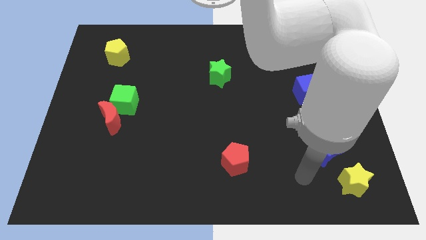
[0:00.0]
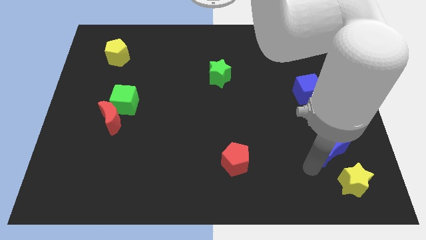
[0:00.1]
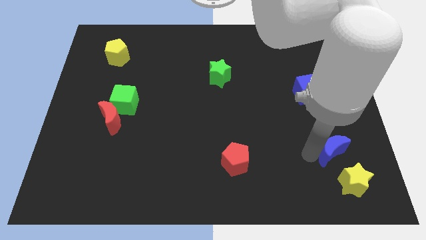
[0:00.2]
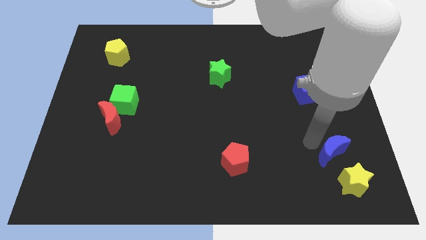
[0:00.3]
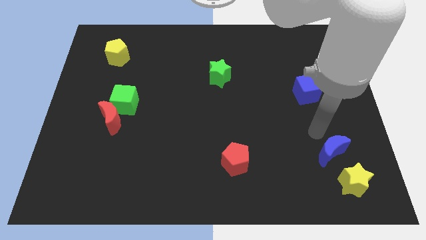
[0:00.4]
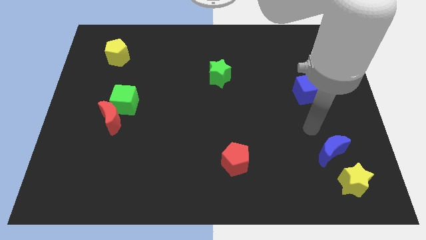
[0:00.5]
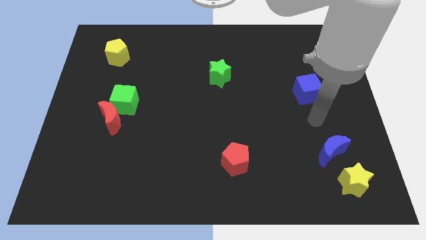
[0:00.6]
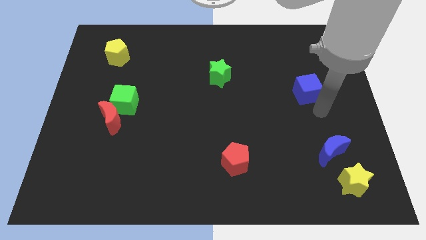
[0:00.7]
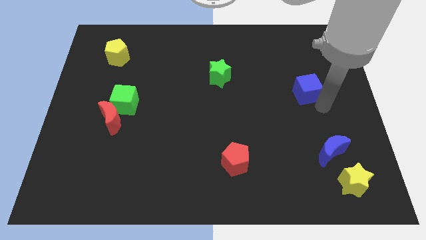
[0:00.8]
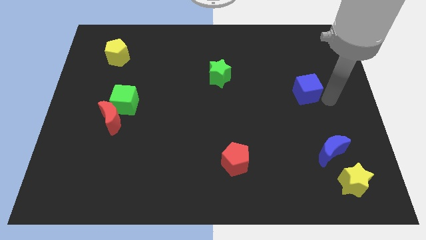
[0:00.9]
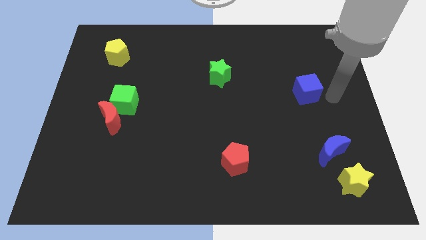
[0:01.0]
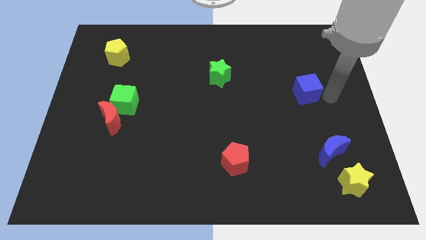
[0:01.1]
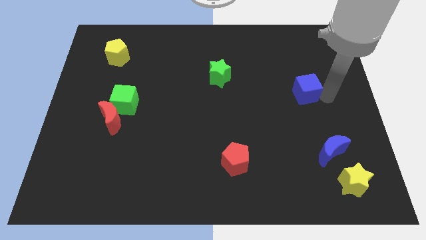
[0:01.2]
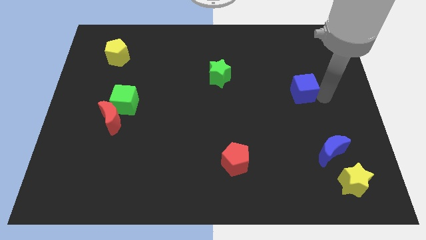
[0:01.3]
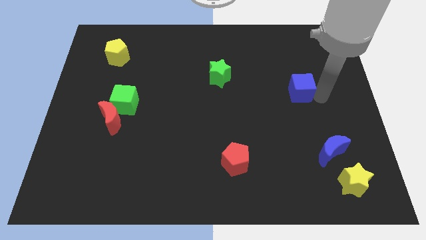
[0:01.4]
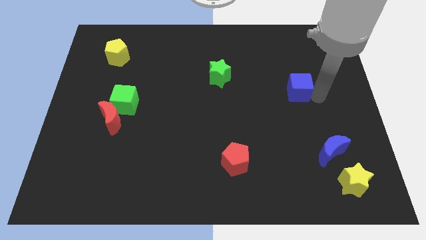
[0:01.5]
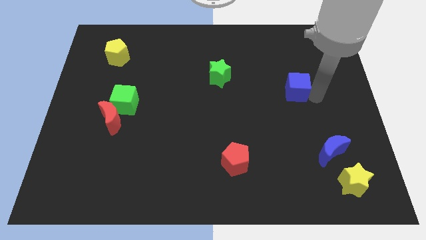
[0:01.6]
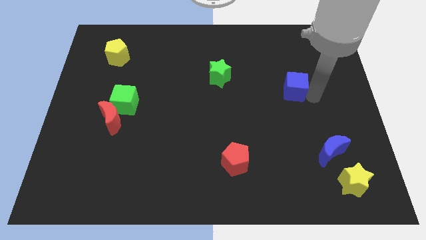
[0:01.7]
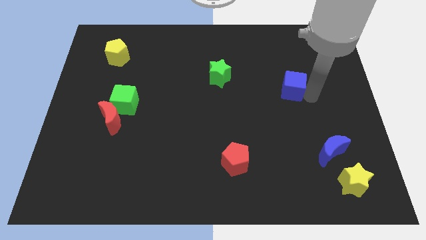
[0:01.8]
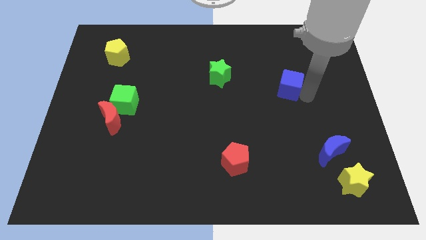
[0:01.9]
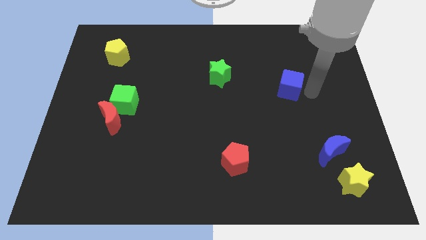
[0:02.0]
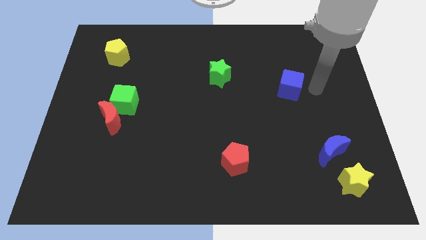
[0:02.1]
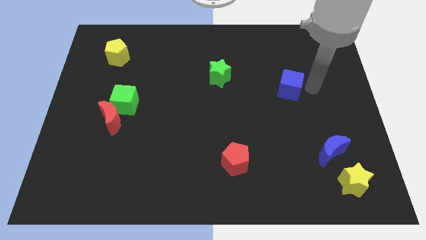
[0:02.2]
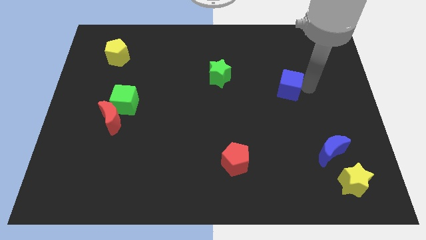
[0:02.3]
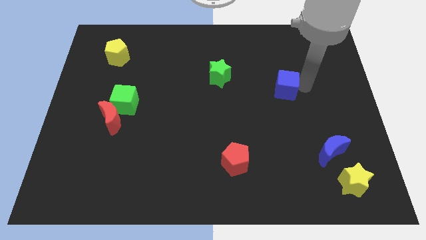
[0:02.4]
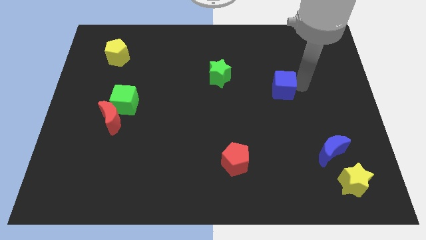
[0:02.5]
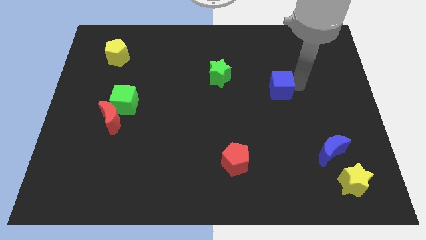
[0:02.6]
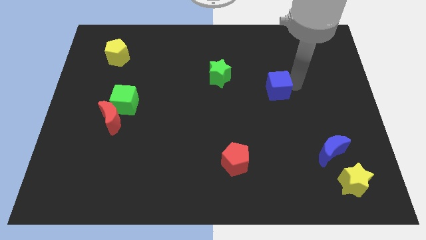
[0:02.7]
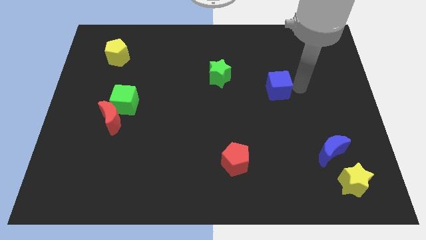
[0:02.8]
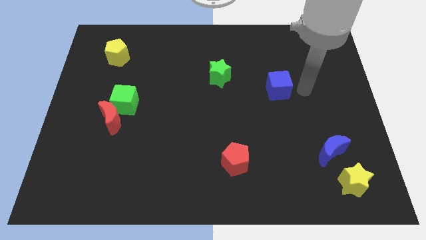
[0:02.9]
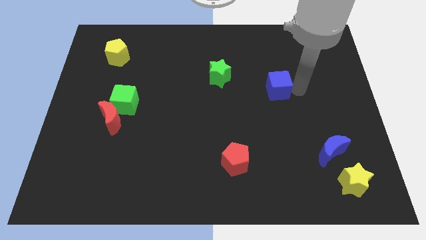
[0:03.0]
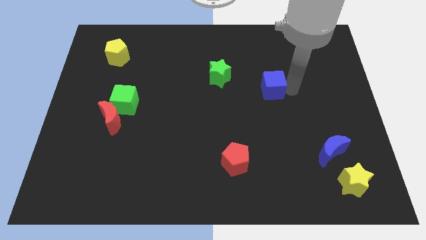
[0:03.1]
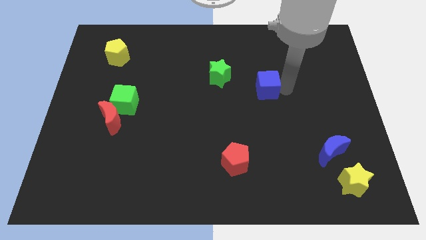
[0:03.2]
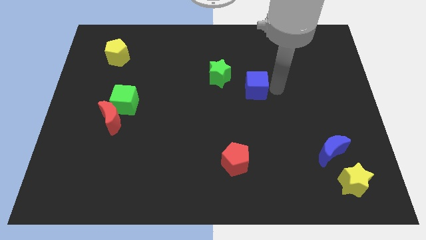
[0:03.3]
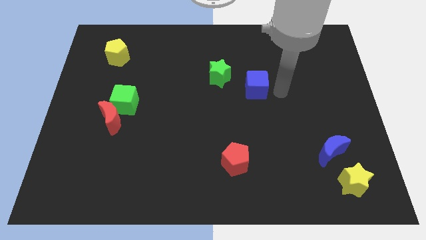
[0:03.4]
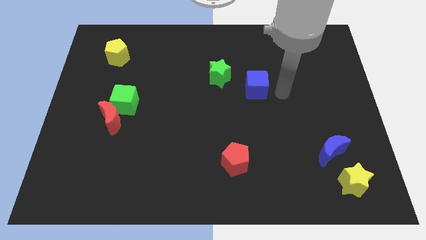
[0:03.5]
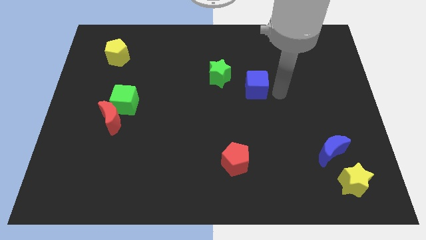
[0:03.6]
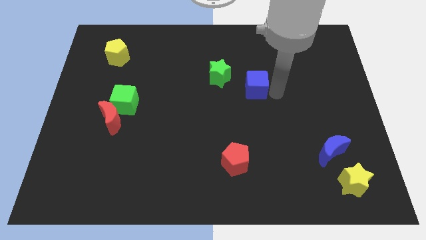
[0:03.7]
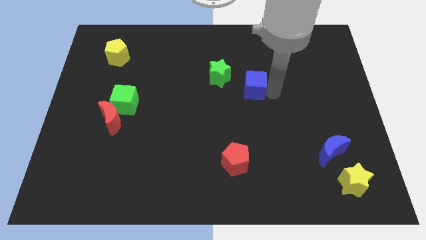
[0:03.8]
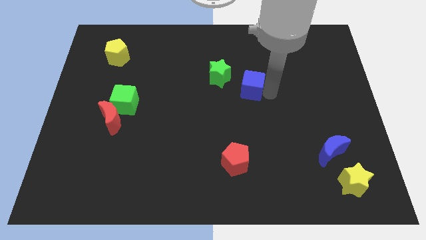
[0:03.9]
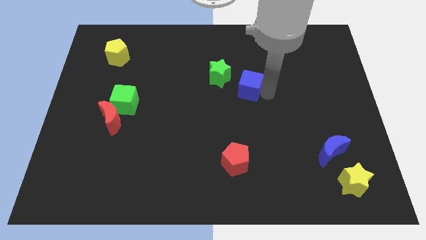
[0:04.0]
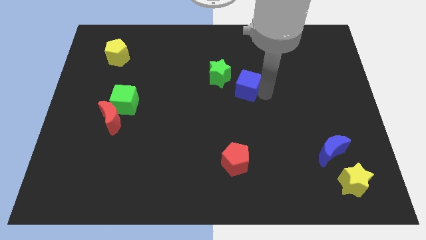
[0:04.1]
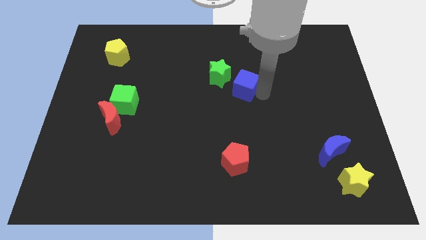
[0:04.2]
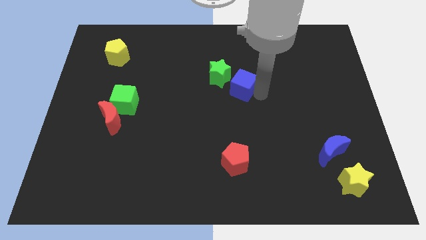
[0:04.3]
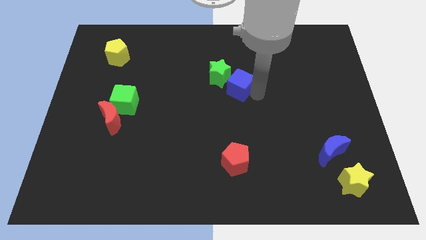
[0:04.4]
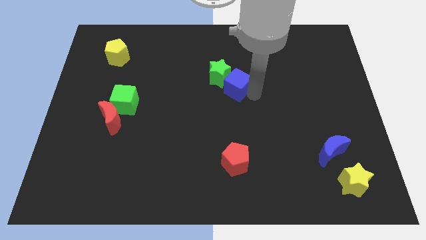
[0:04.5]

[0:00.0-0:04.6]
move the blue cube to the green star

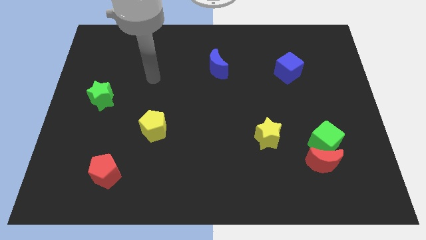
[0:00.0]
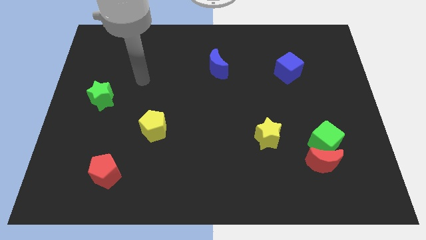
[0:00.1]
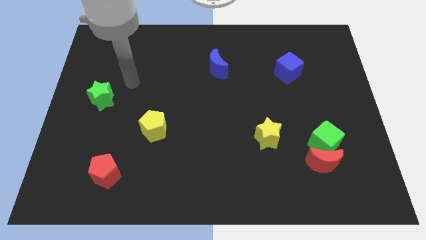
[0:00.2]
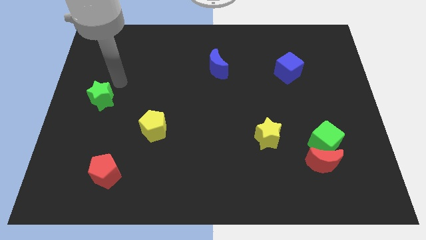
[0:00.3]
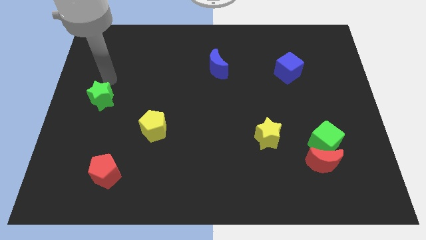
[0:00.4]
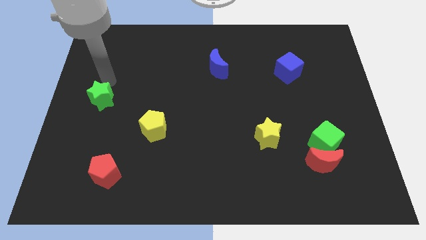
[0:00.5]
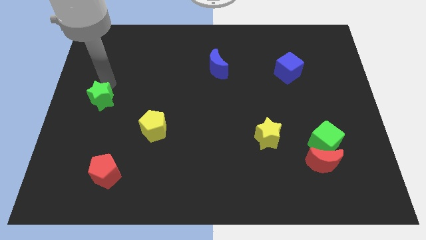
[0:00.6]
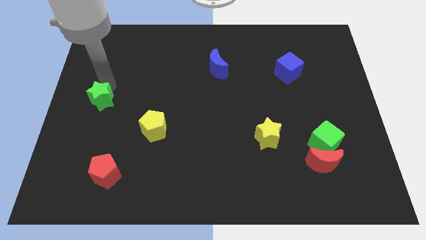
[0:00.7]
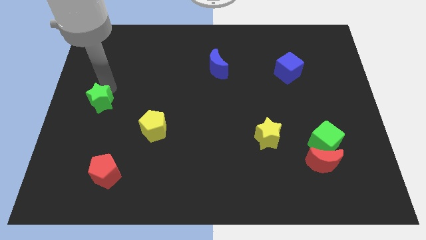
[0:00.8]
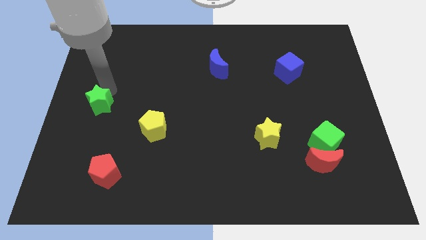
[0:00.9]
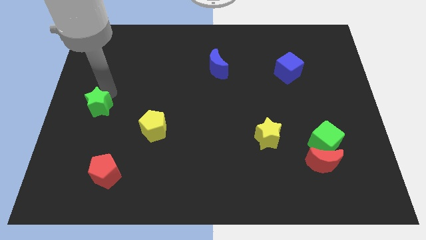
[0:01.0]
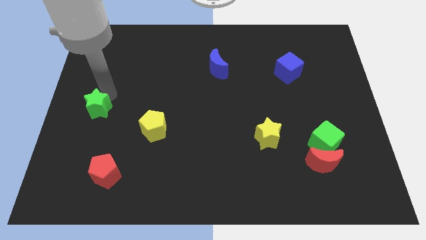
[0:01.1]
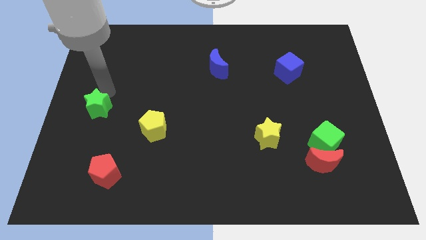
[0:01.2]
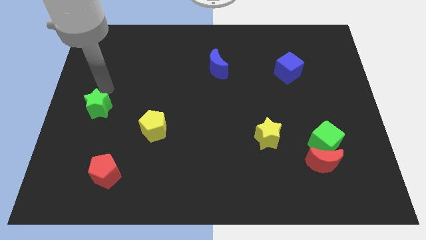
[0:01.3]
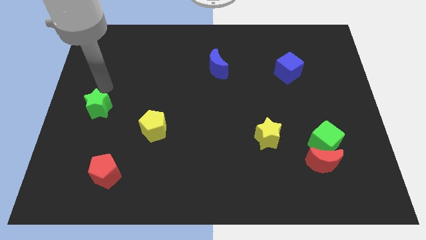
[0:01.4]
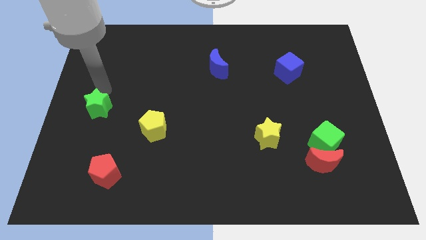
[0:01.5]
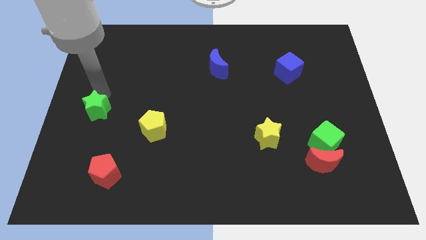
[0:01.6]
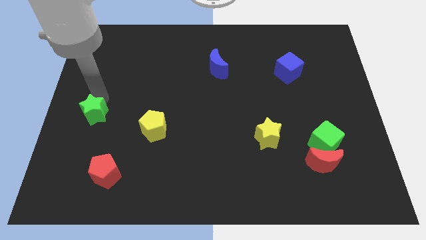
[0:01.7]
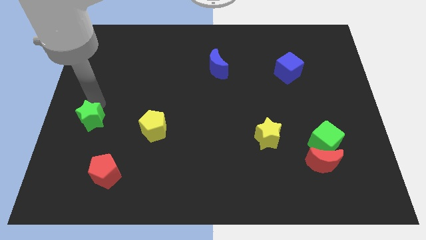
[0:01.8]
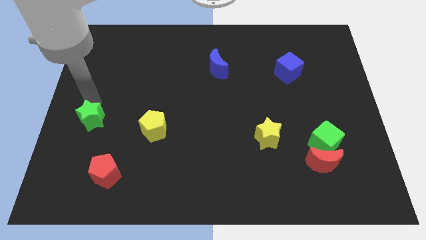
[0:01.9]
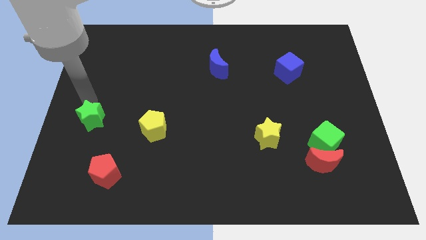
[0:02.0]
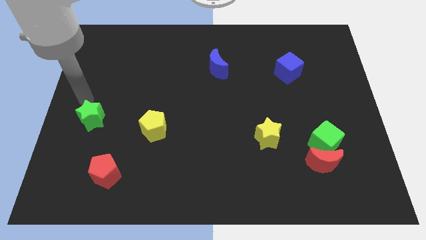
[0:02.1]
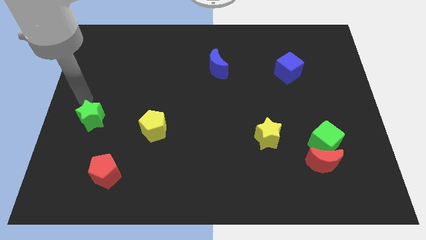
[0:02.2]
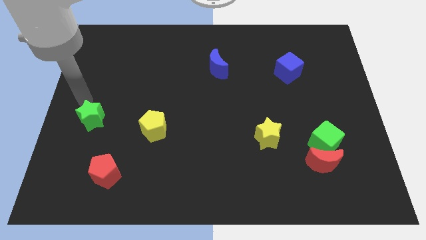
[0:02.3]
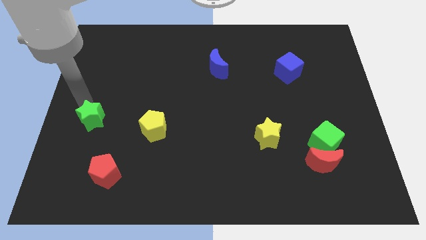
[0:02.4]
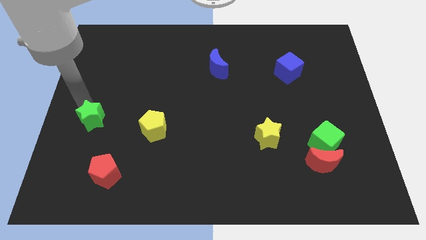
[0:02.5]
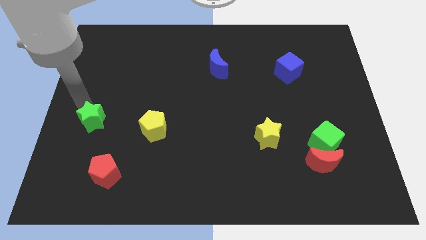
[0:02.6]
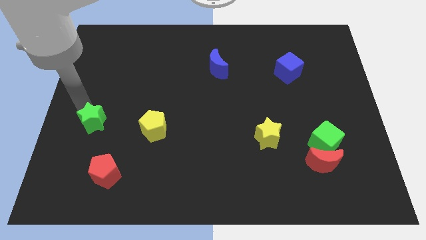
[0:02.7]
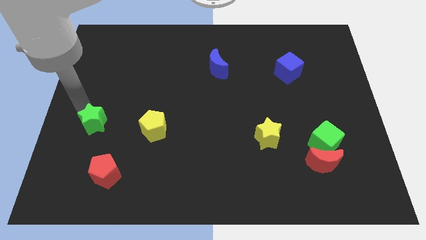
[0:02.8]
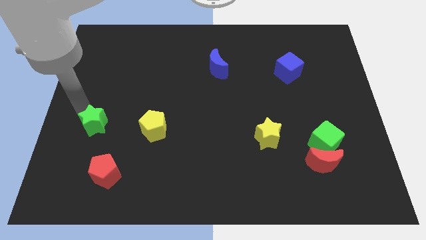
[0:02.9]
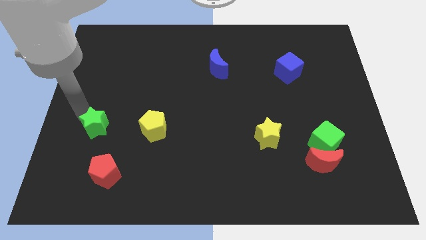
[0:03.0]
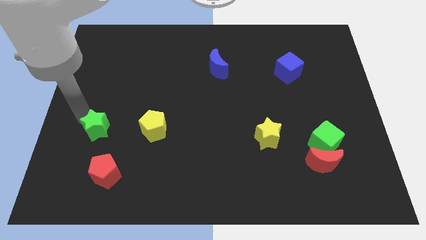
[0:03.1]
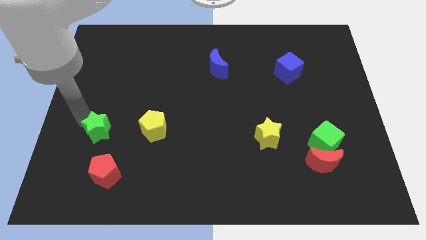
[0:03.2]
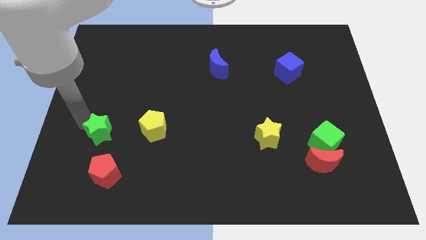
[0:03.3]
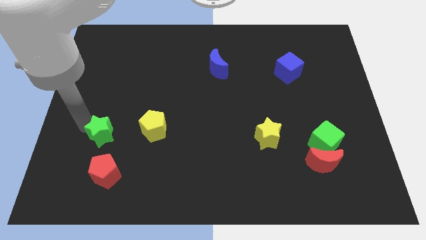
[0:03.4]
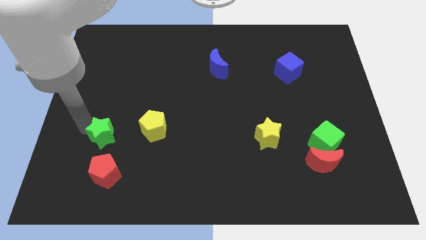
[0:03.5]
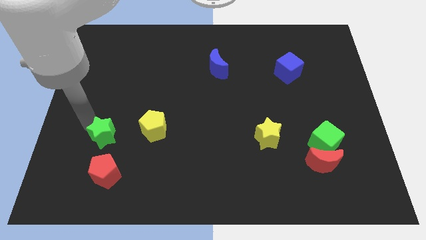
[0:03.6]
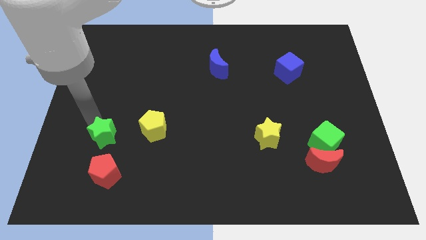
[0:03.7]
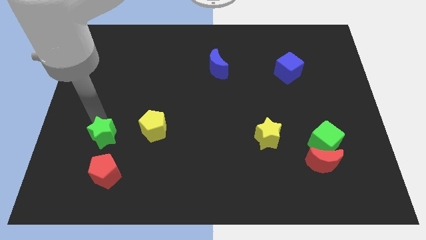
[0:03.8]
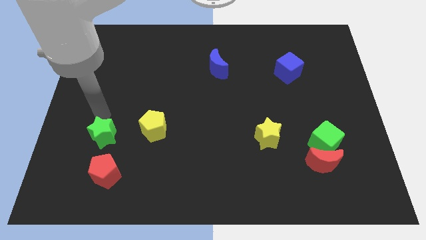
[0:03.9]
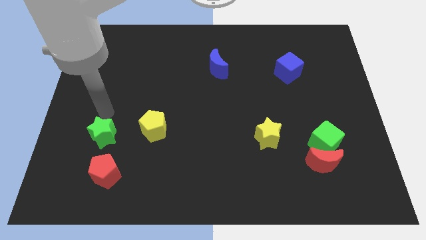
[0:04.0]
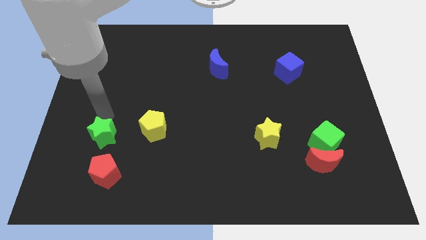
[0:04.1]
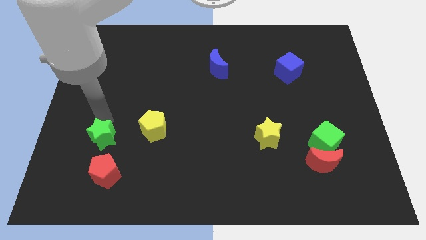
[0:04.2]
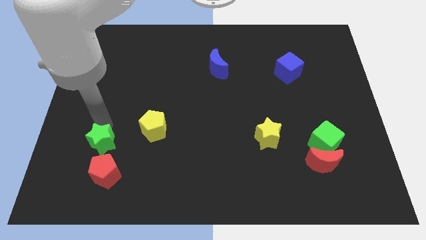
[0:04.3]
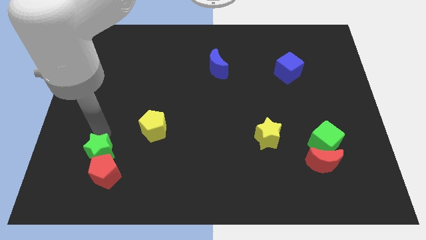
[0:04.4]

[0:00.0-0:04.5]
push the green star to the red pentagon
